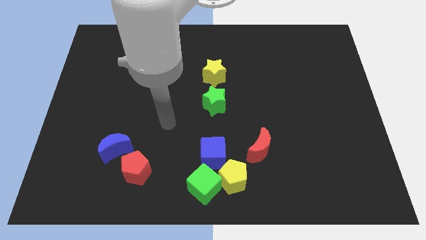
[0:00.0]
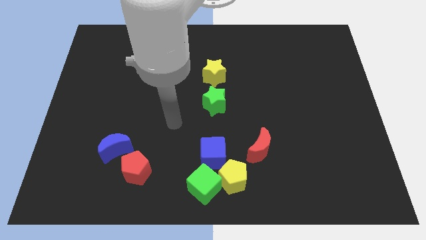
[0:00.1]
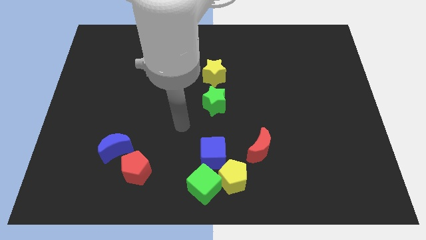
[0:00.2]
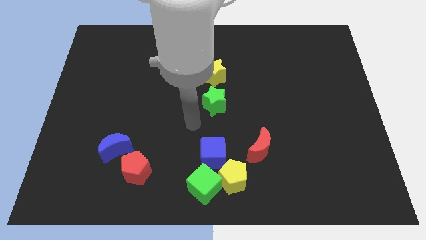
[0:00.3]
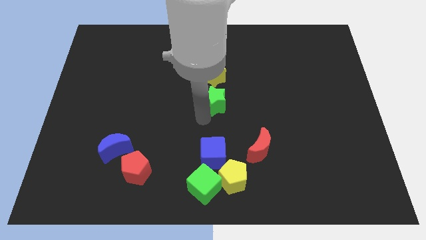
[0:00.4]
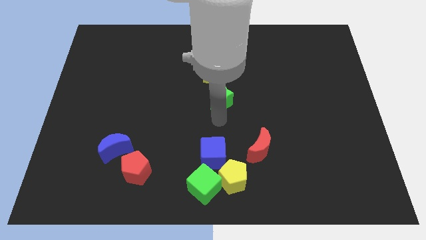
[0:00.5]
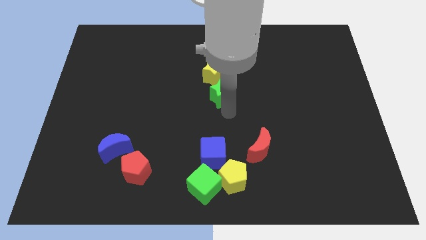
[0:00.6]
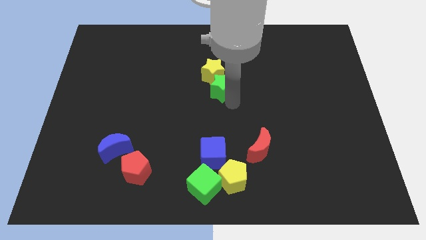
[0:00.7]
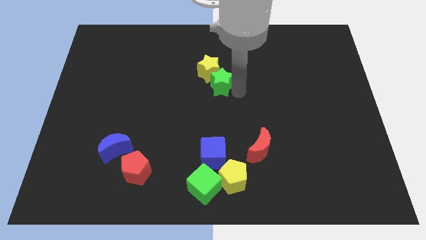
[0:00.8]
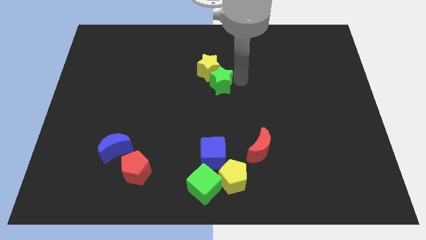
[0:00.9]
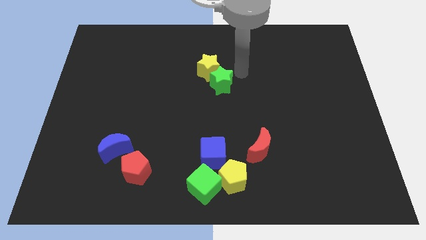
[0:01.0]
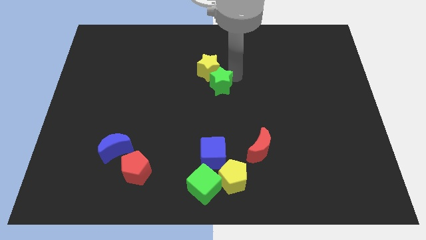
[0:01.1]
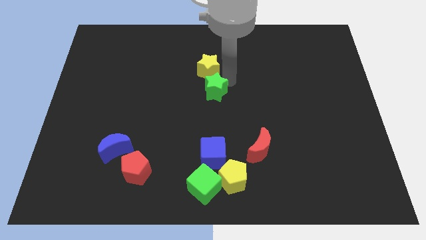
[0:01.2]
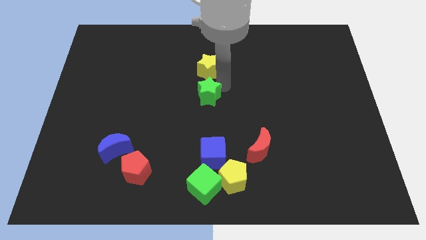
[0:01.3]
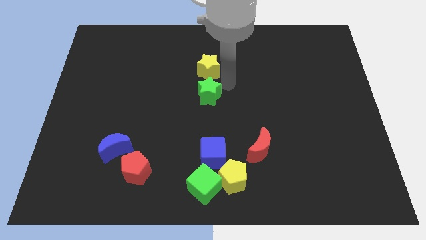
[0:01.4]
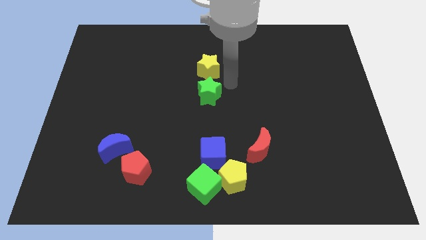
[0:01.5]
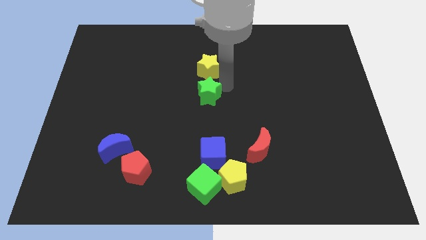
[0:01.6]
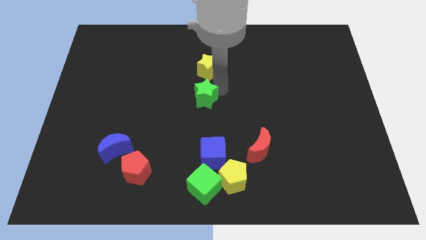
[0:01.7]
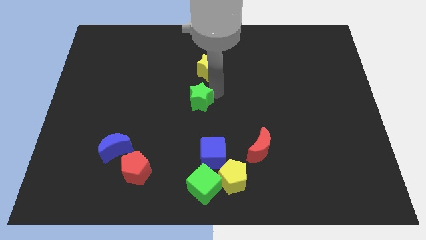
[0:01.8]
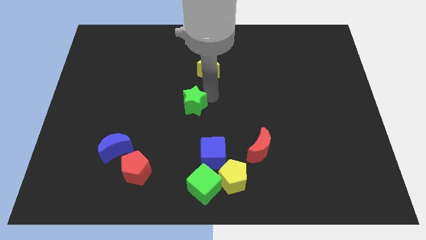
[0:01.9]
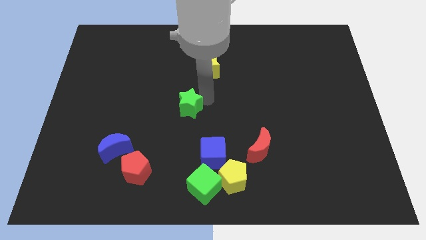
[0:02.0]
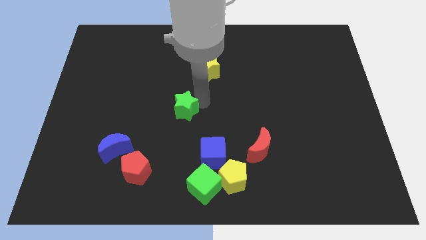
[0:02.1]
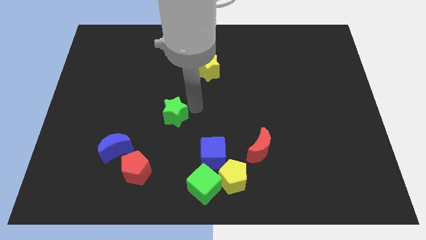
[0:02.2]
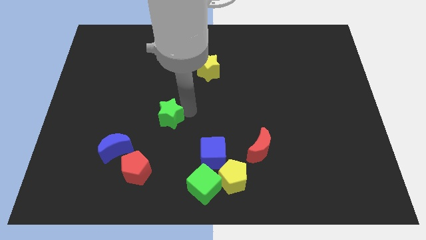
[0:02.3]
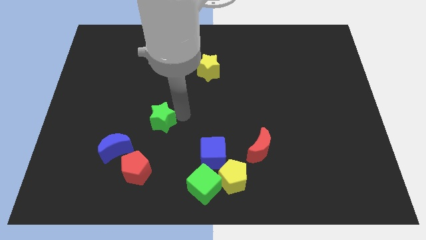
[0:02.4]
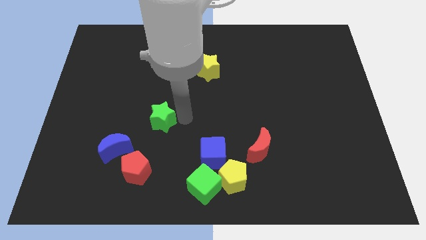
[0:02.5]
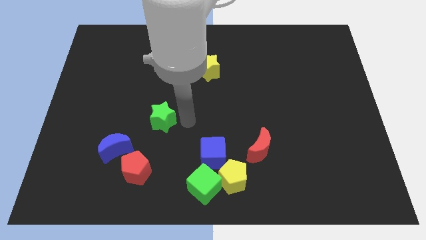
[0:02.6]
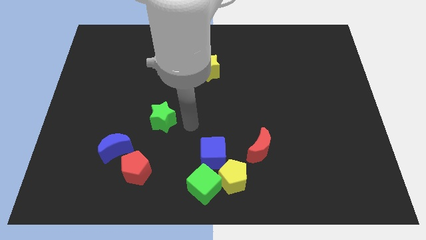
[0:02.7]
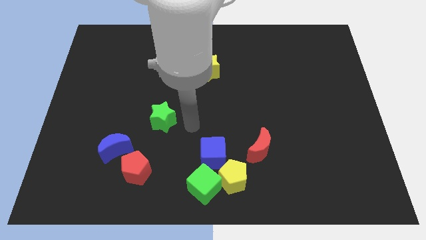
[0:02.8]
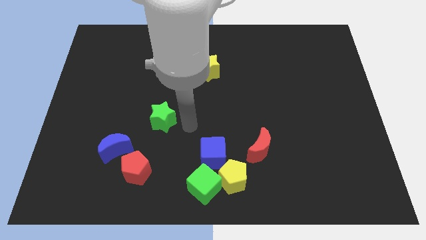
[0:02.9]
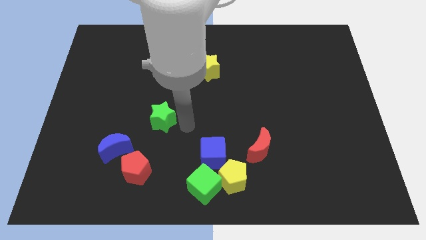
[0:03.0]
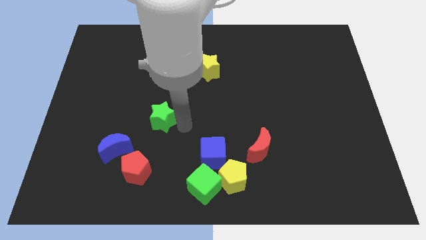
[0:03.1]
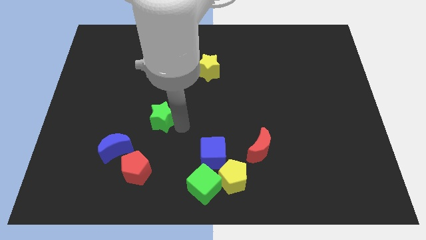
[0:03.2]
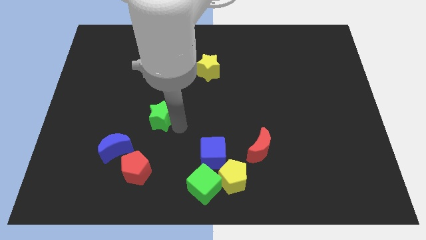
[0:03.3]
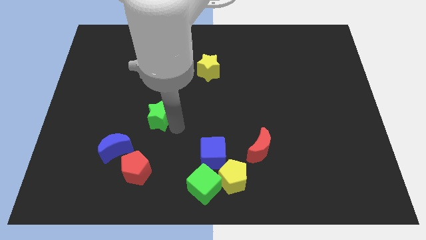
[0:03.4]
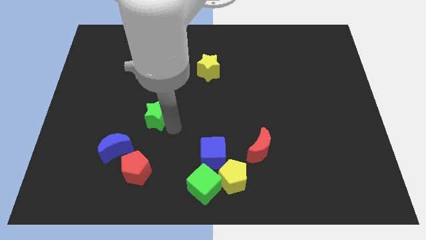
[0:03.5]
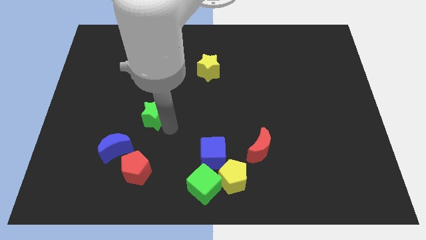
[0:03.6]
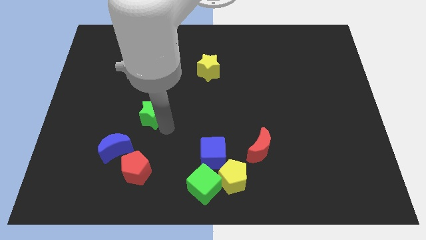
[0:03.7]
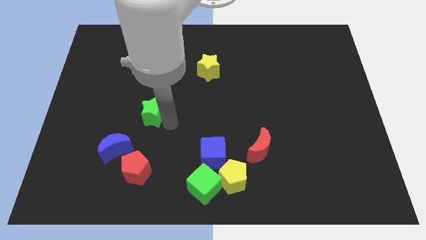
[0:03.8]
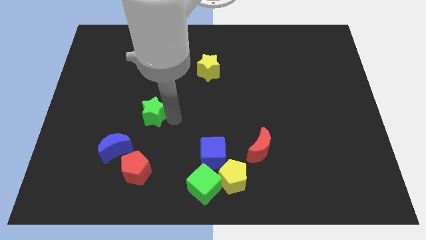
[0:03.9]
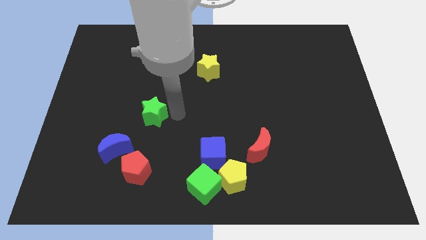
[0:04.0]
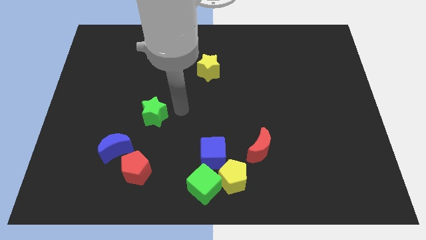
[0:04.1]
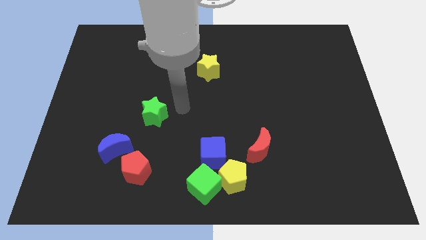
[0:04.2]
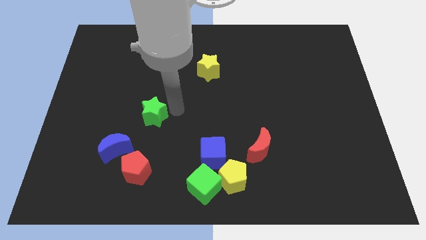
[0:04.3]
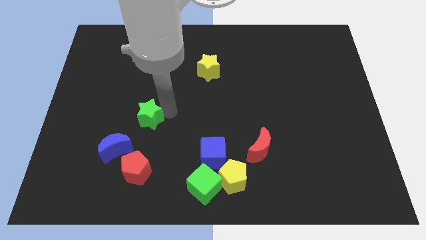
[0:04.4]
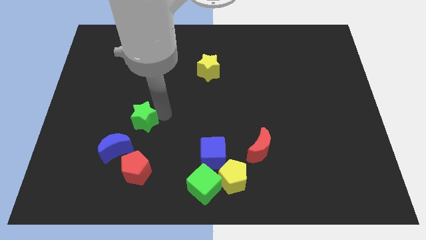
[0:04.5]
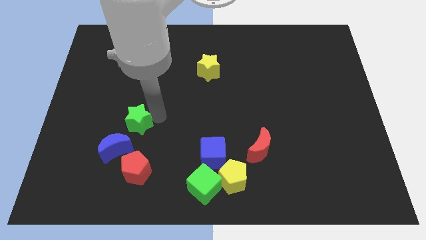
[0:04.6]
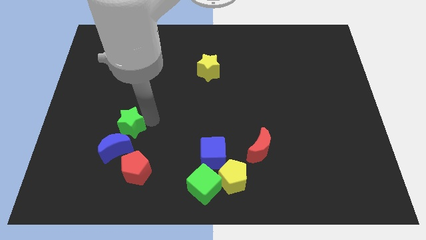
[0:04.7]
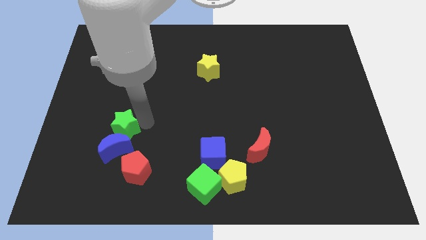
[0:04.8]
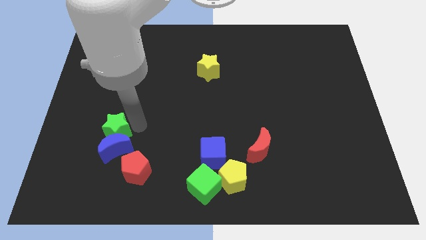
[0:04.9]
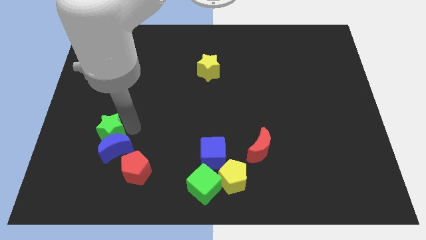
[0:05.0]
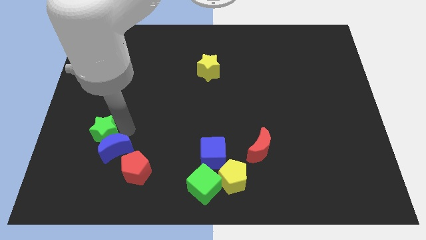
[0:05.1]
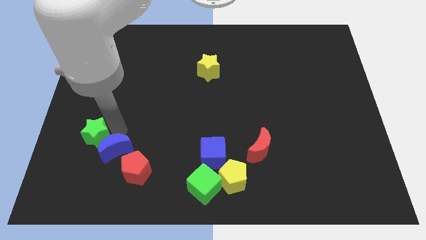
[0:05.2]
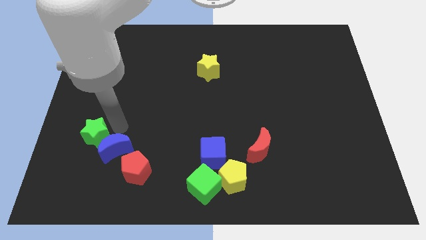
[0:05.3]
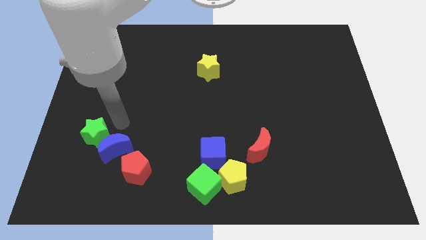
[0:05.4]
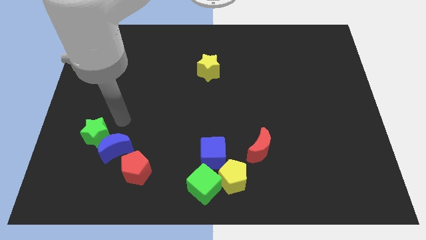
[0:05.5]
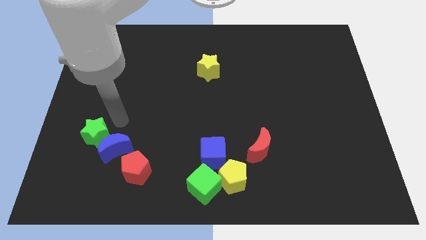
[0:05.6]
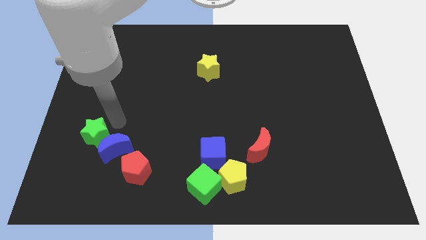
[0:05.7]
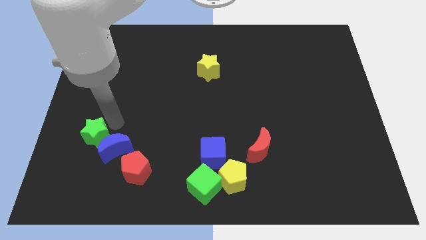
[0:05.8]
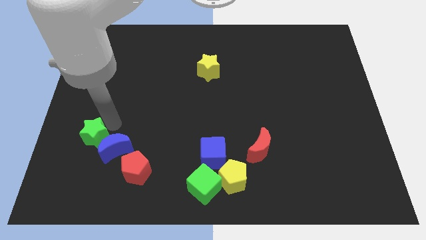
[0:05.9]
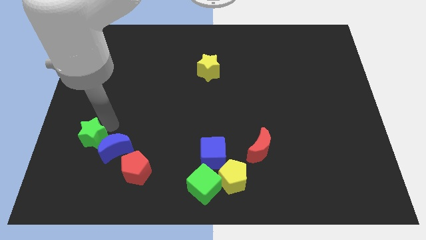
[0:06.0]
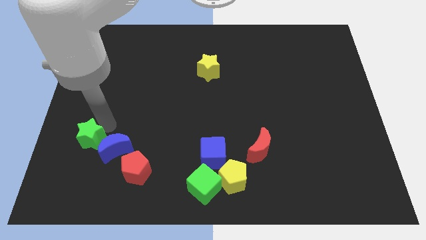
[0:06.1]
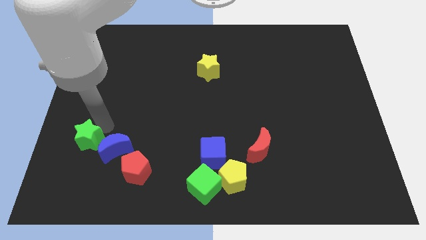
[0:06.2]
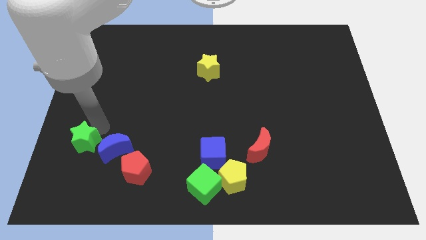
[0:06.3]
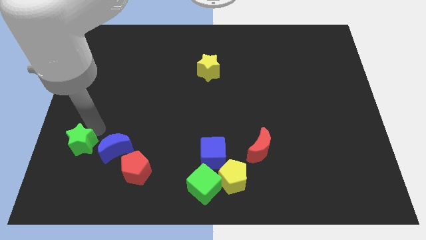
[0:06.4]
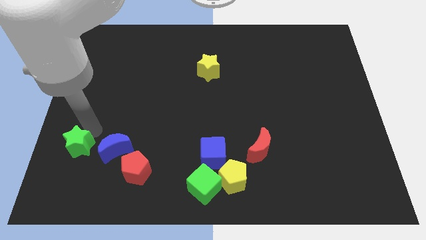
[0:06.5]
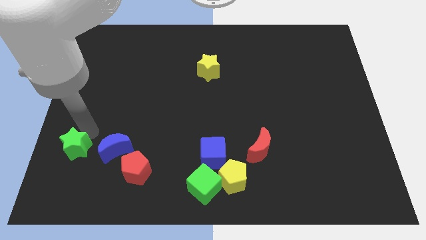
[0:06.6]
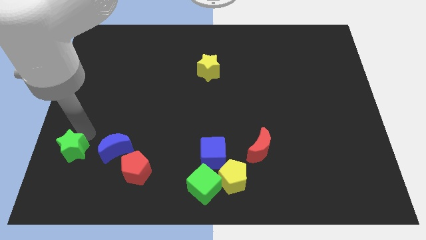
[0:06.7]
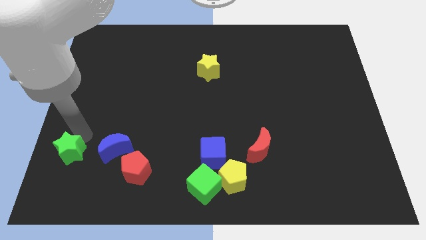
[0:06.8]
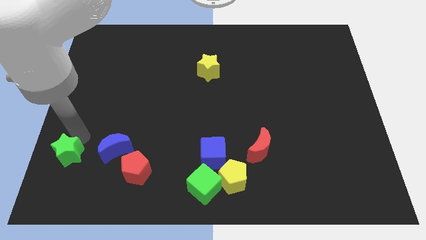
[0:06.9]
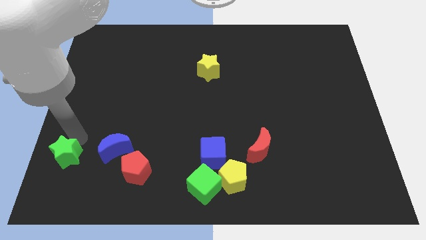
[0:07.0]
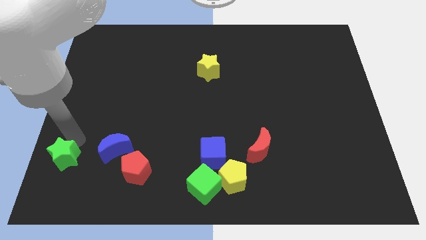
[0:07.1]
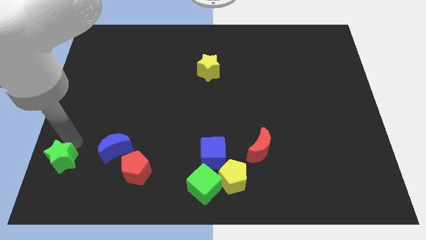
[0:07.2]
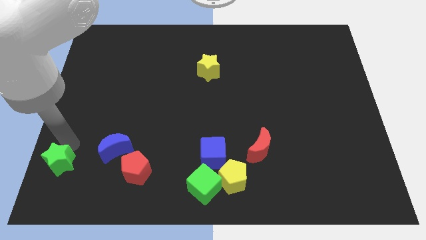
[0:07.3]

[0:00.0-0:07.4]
move the green star to the bottom left corner

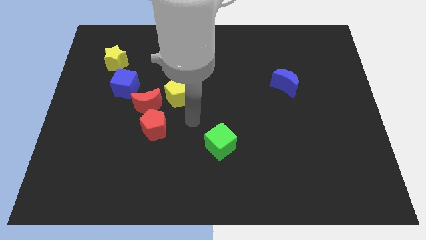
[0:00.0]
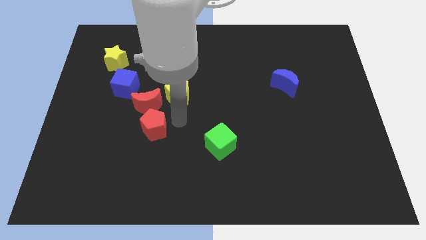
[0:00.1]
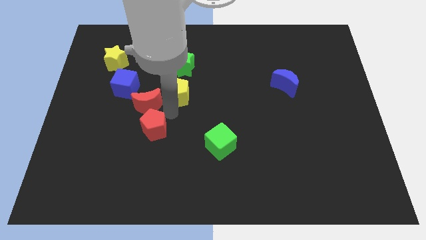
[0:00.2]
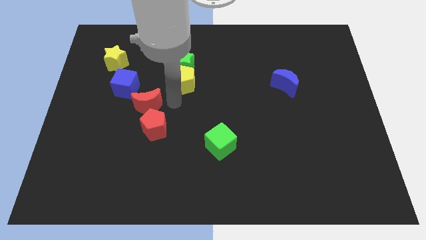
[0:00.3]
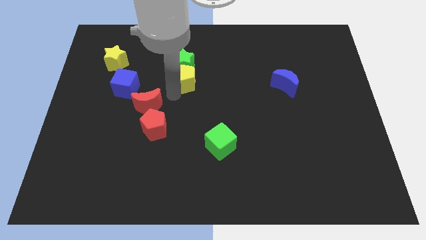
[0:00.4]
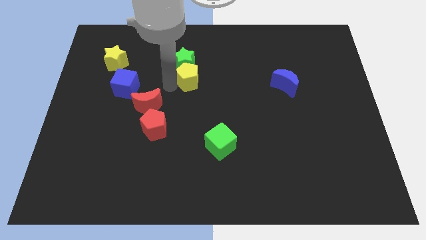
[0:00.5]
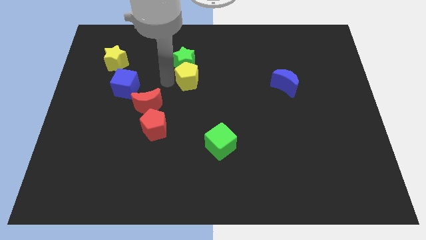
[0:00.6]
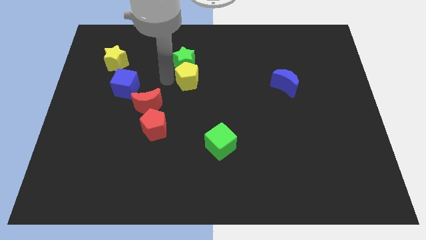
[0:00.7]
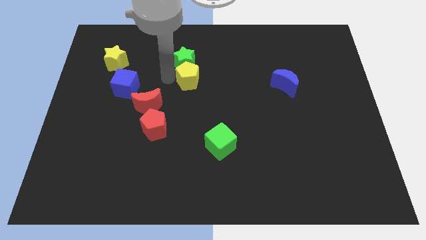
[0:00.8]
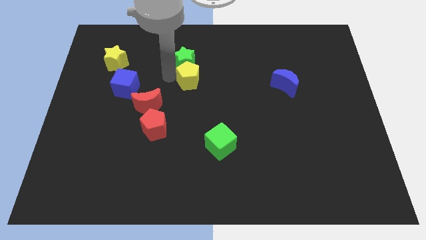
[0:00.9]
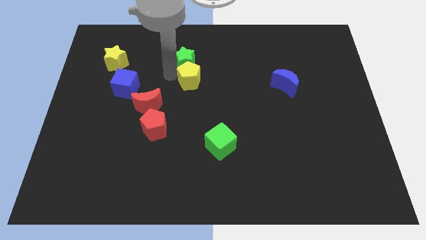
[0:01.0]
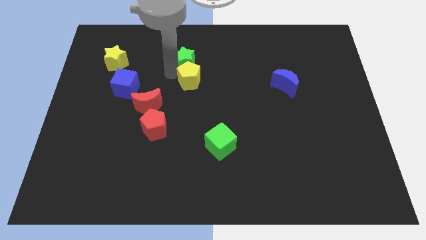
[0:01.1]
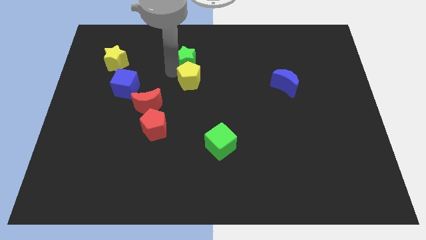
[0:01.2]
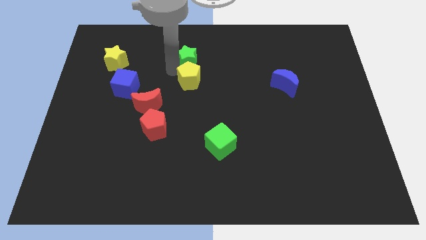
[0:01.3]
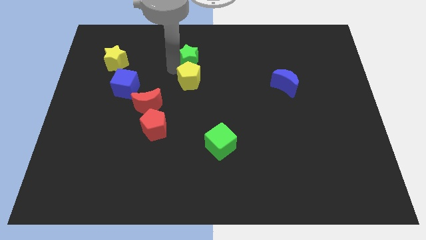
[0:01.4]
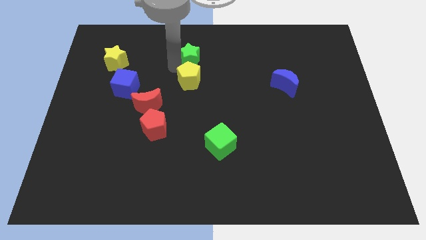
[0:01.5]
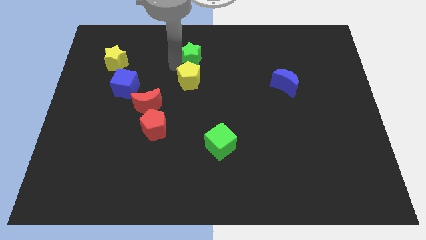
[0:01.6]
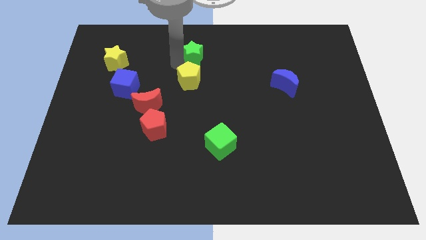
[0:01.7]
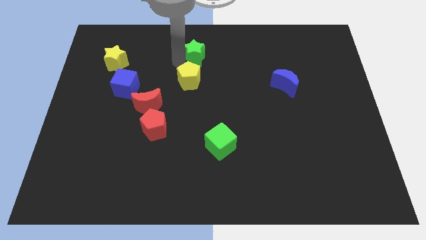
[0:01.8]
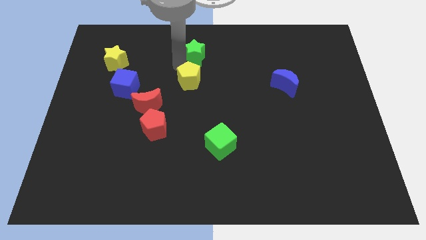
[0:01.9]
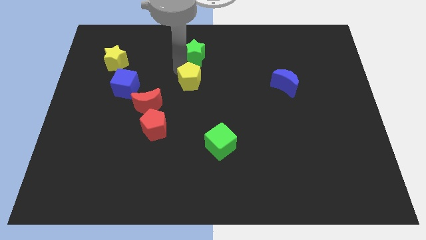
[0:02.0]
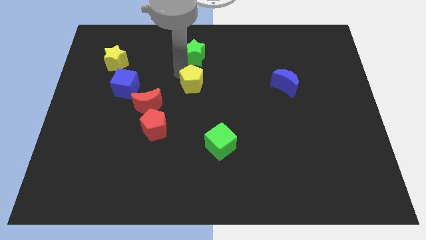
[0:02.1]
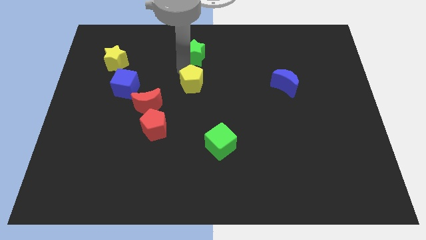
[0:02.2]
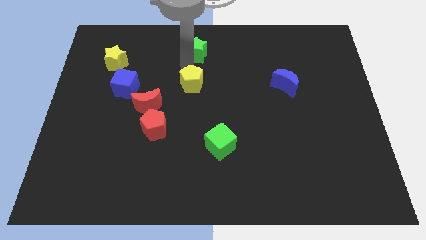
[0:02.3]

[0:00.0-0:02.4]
push the green star to the top
